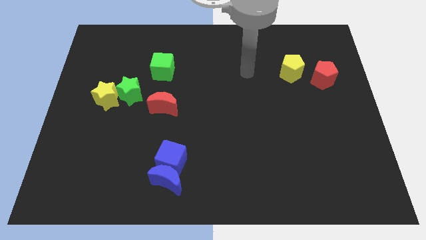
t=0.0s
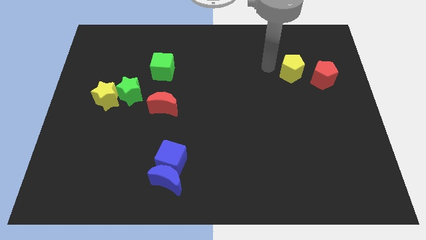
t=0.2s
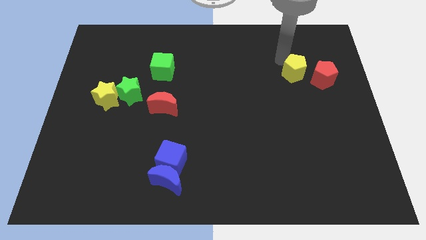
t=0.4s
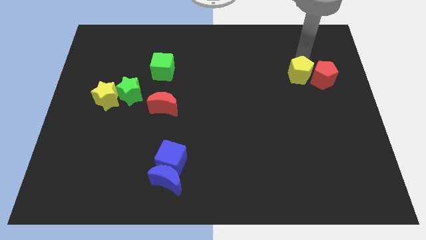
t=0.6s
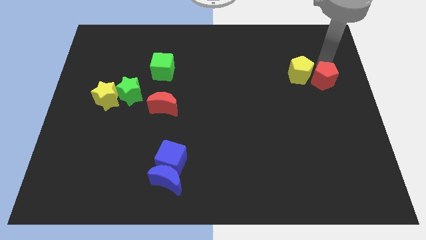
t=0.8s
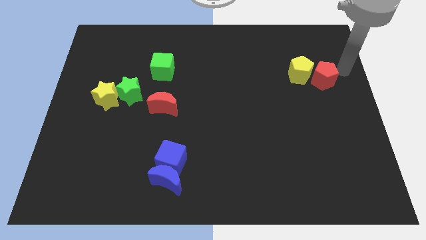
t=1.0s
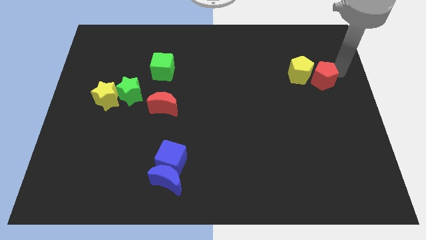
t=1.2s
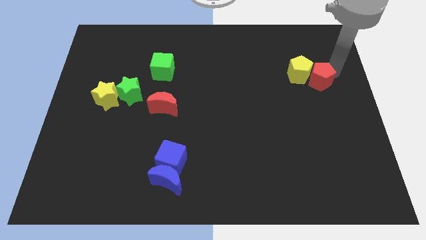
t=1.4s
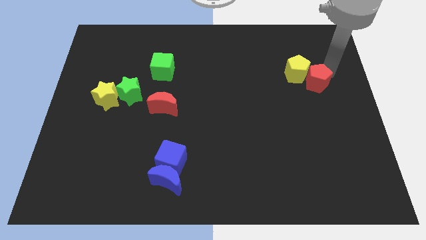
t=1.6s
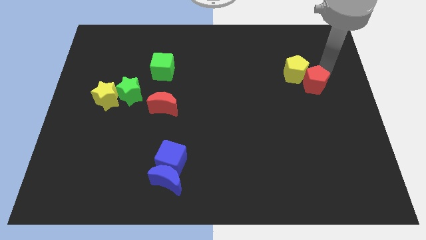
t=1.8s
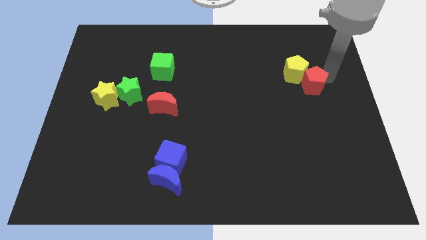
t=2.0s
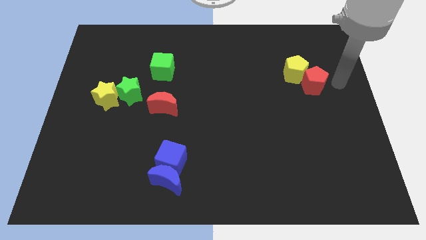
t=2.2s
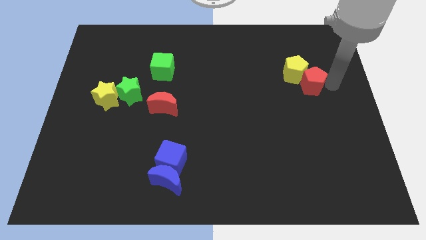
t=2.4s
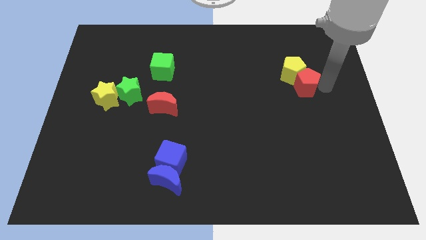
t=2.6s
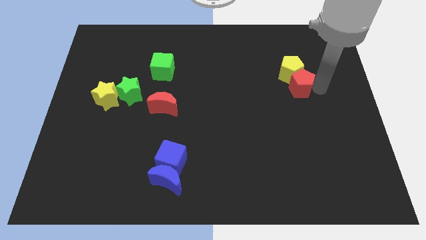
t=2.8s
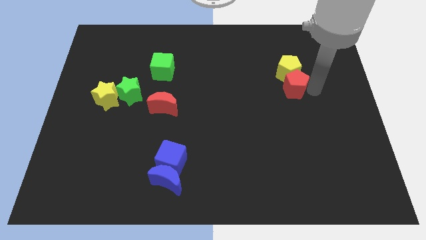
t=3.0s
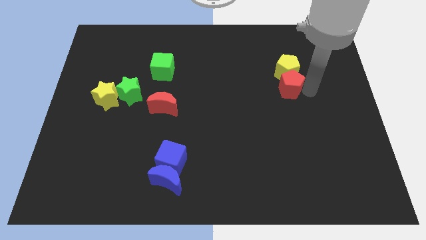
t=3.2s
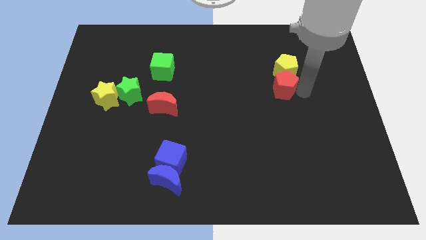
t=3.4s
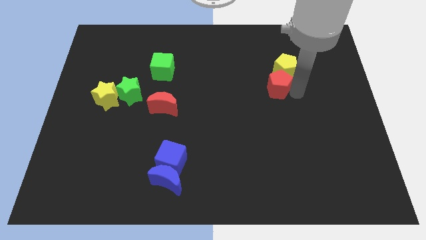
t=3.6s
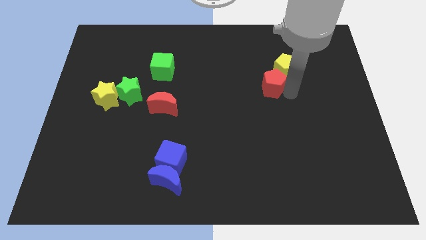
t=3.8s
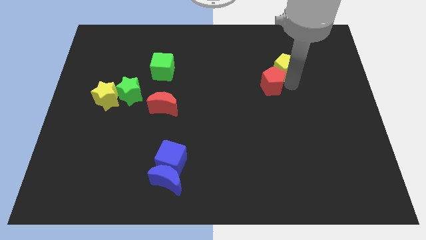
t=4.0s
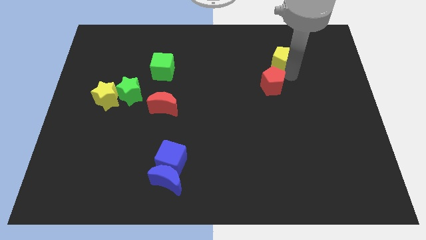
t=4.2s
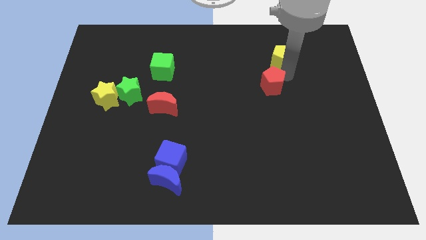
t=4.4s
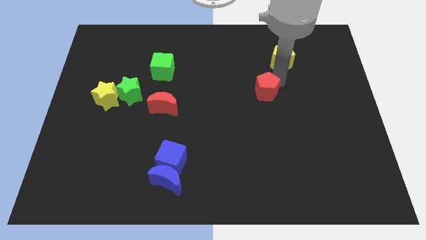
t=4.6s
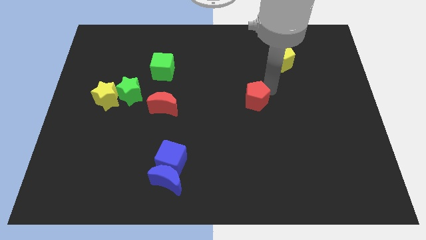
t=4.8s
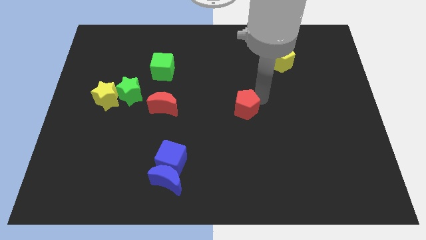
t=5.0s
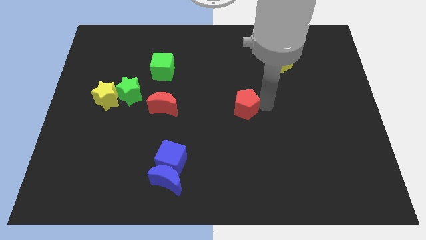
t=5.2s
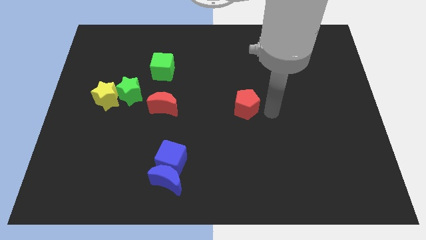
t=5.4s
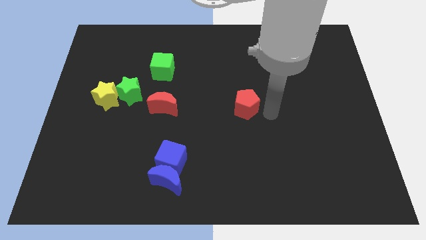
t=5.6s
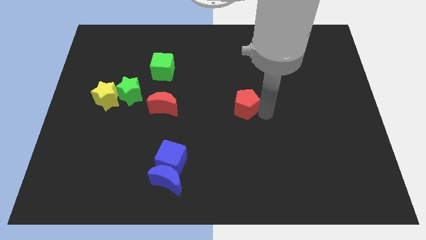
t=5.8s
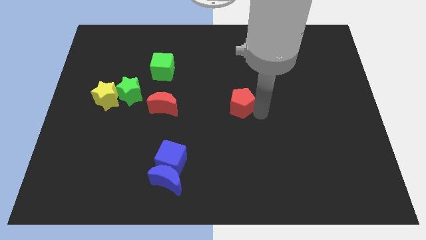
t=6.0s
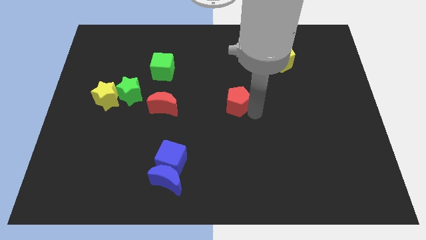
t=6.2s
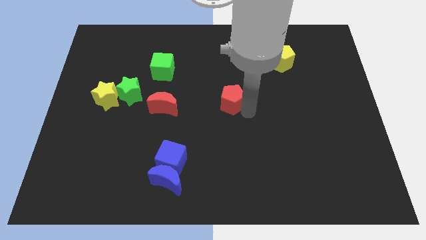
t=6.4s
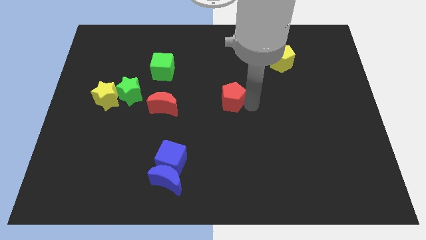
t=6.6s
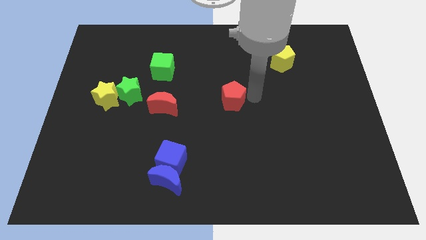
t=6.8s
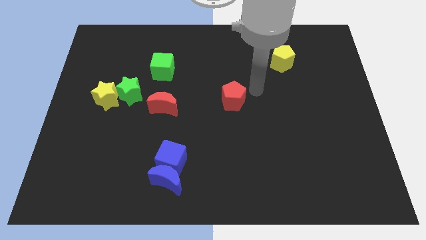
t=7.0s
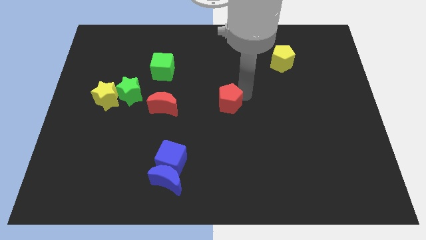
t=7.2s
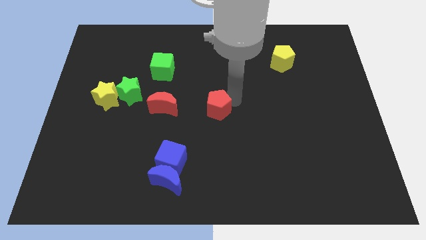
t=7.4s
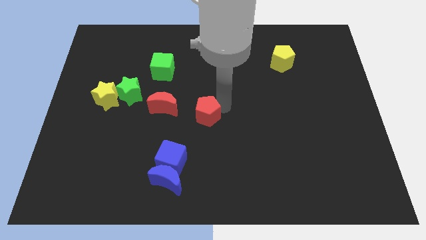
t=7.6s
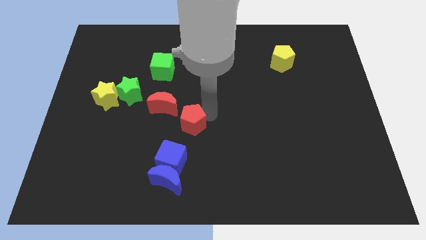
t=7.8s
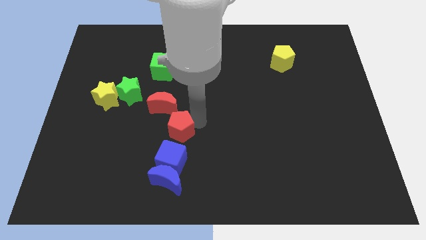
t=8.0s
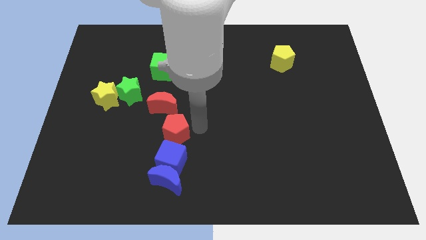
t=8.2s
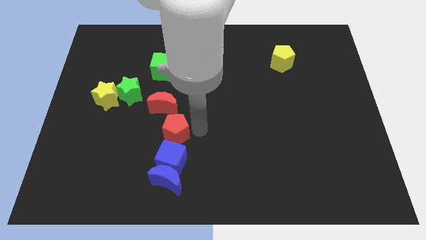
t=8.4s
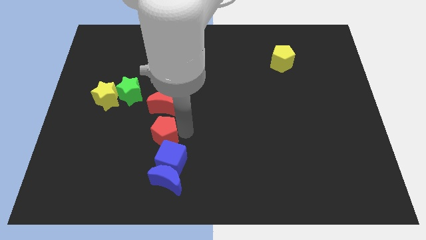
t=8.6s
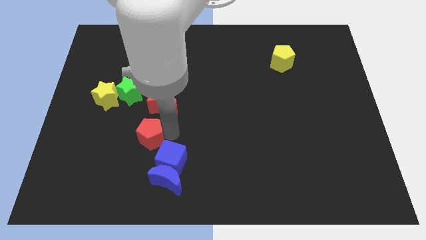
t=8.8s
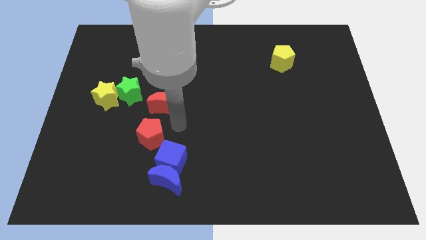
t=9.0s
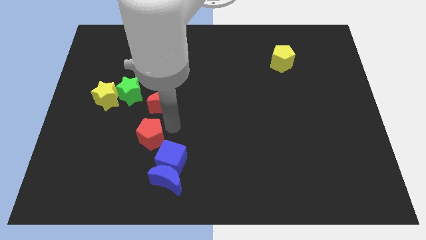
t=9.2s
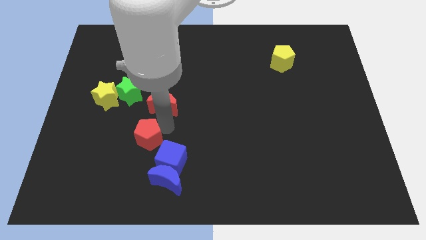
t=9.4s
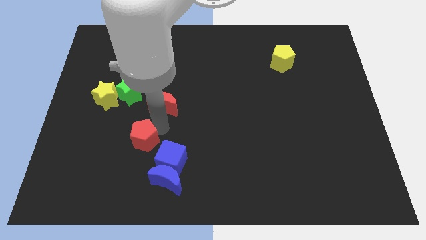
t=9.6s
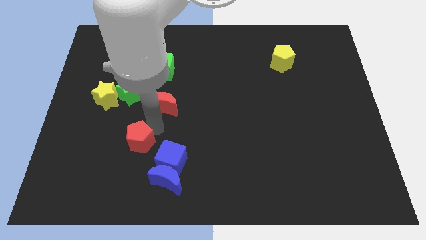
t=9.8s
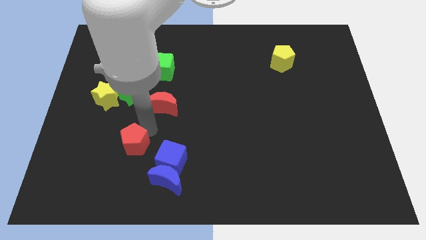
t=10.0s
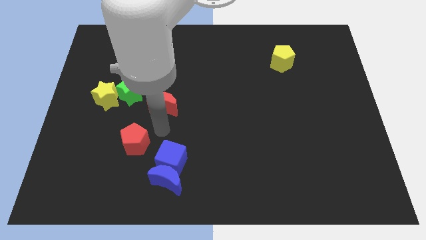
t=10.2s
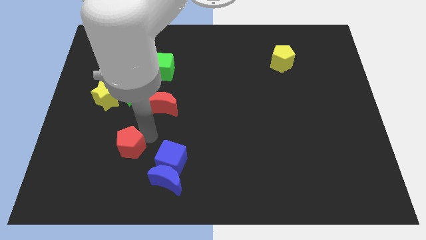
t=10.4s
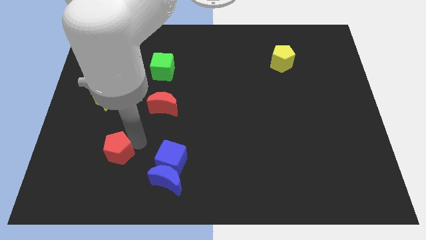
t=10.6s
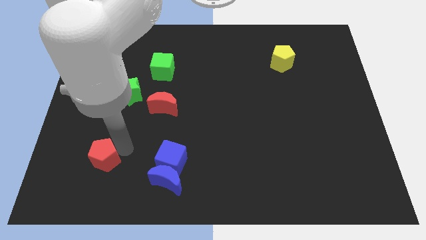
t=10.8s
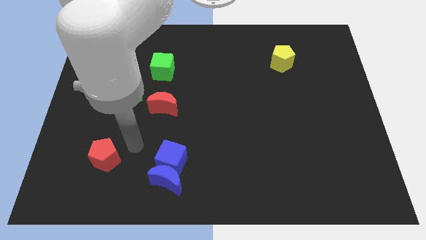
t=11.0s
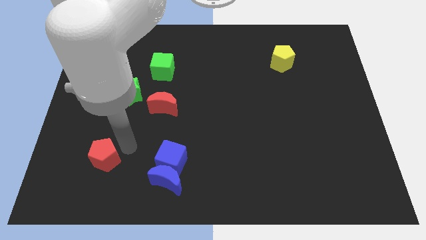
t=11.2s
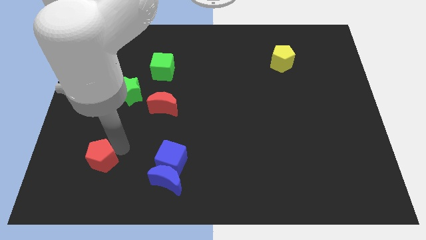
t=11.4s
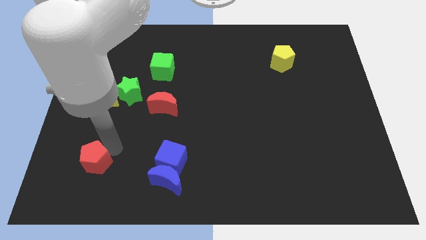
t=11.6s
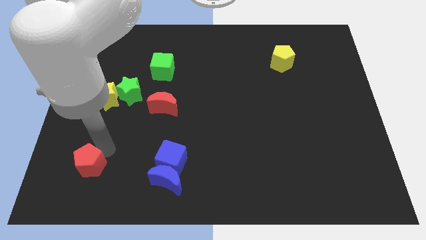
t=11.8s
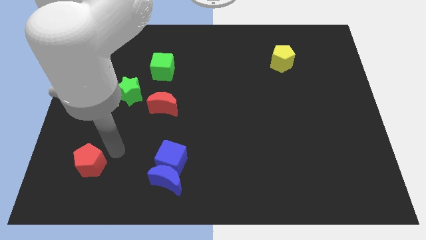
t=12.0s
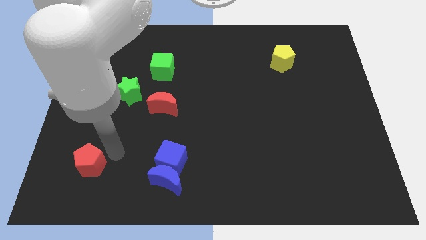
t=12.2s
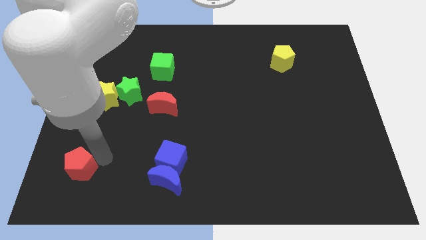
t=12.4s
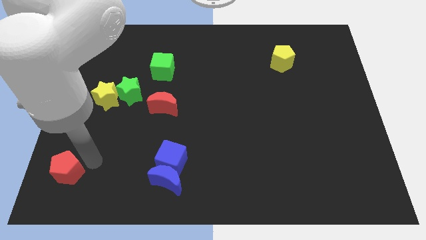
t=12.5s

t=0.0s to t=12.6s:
move the red pentagon to the bottom left corner

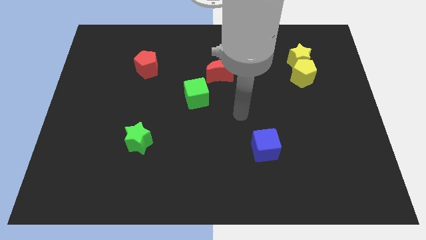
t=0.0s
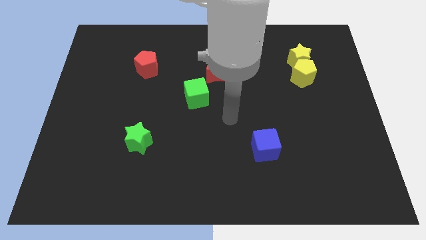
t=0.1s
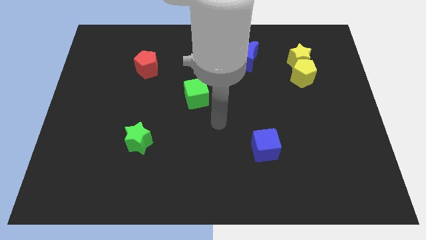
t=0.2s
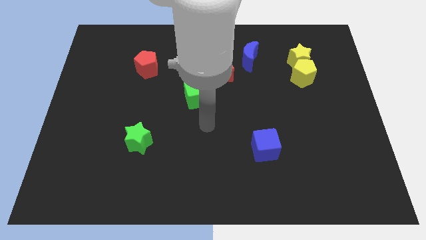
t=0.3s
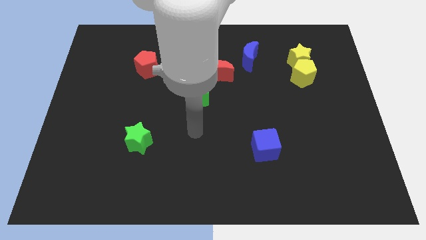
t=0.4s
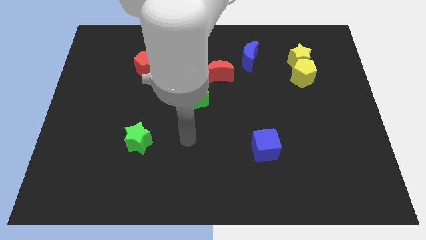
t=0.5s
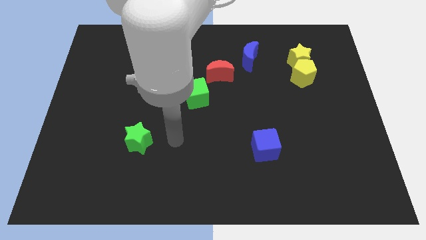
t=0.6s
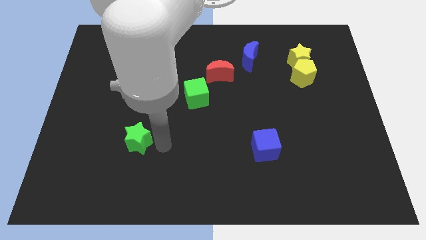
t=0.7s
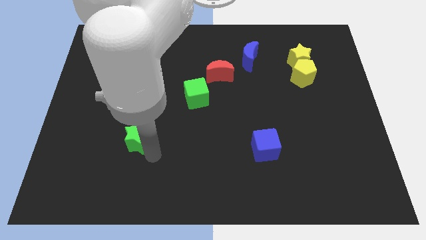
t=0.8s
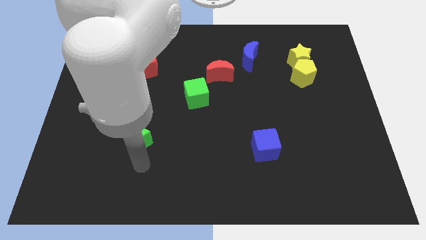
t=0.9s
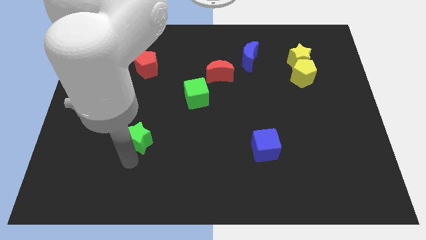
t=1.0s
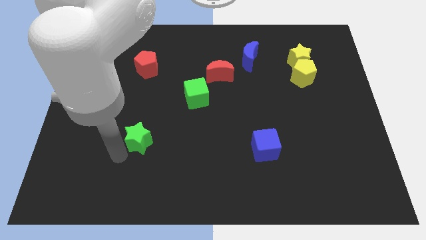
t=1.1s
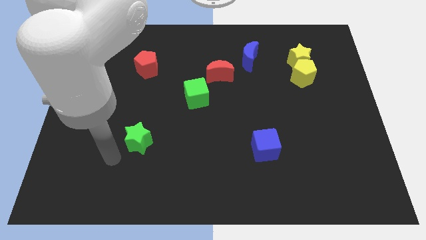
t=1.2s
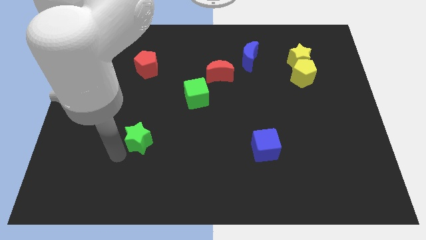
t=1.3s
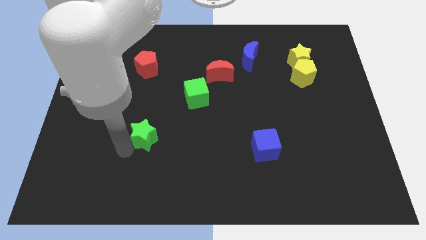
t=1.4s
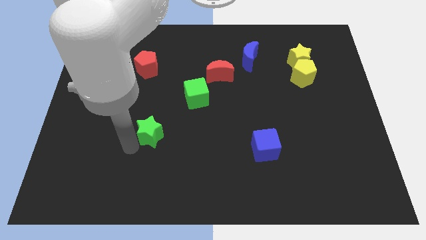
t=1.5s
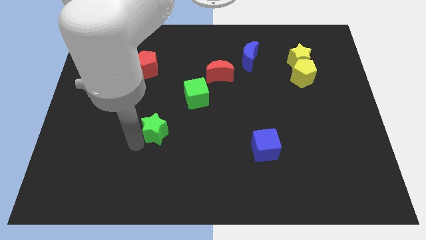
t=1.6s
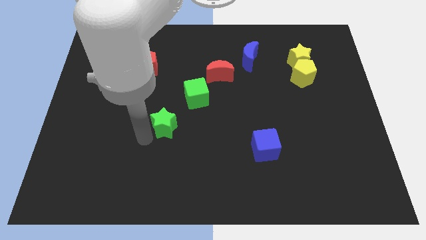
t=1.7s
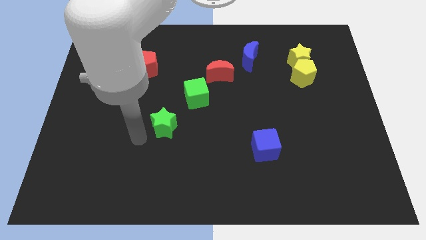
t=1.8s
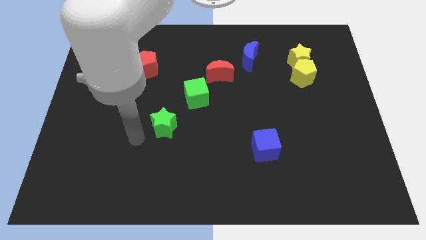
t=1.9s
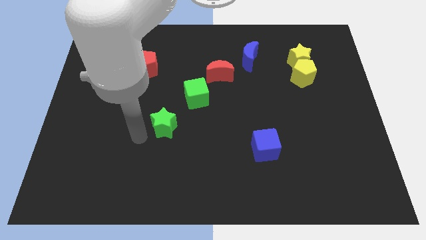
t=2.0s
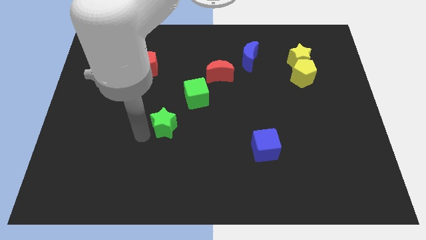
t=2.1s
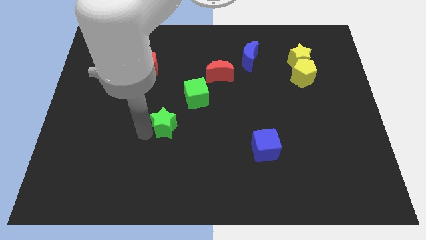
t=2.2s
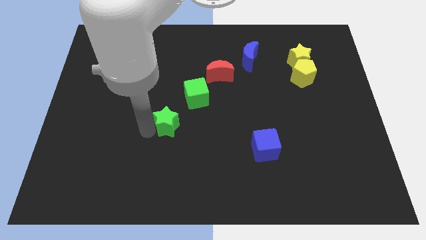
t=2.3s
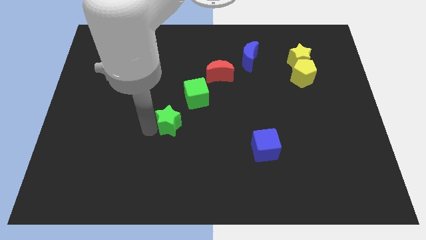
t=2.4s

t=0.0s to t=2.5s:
put the green star to the center of the board
